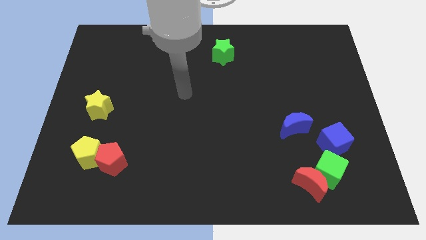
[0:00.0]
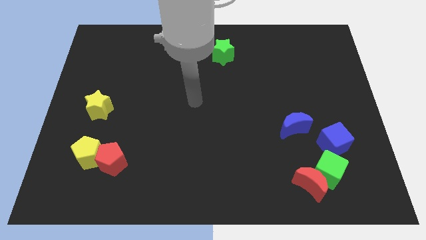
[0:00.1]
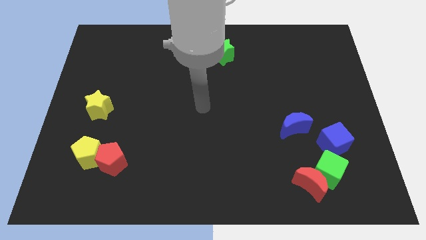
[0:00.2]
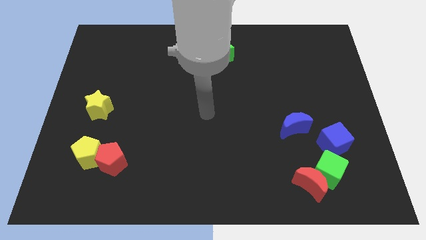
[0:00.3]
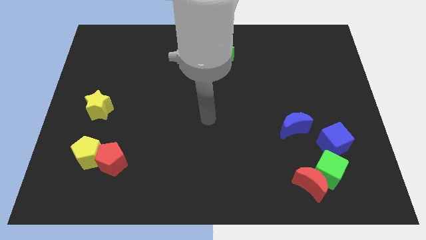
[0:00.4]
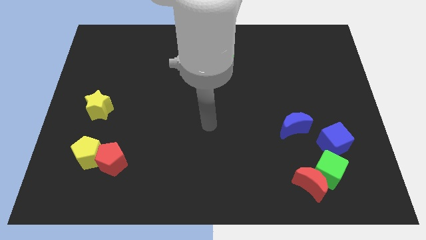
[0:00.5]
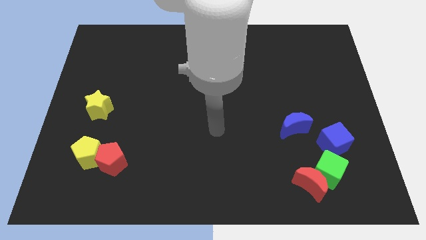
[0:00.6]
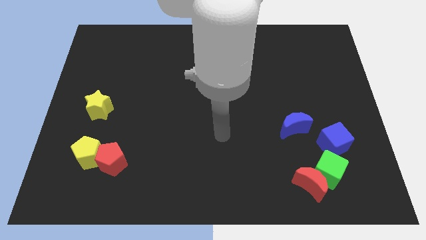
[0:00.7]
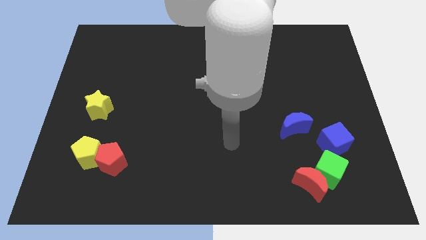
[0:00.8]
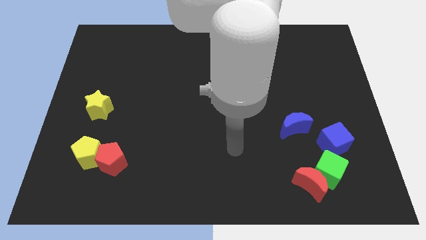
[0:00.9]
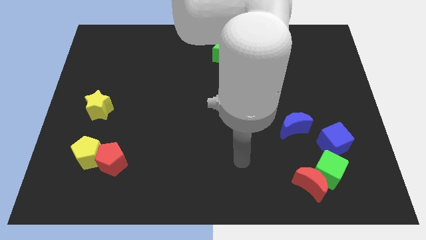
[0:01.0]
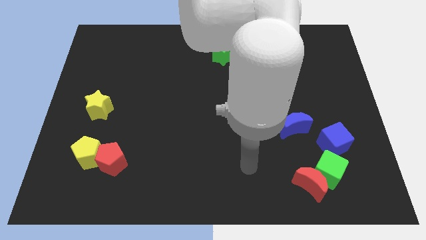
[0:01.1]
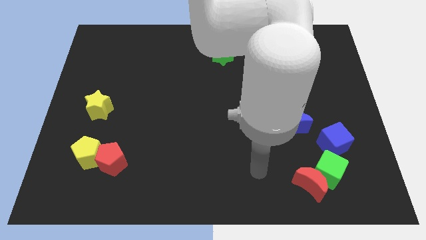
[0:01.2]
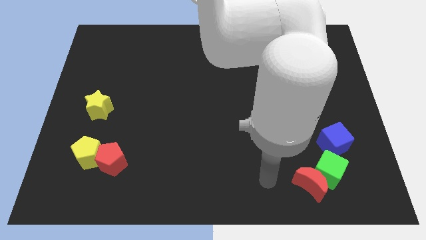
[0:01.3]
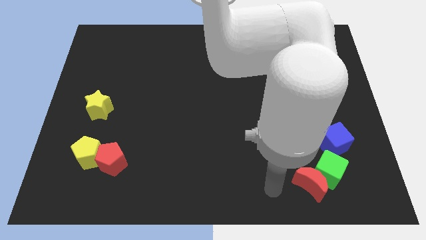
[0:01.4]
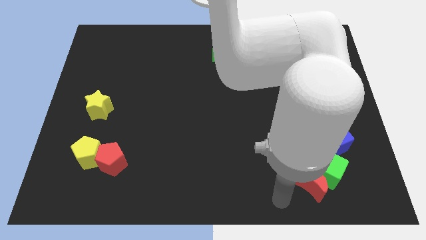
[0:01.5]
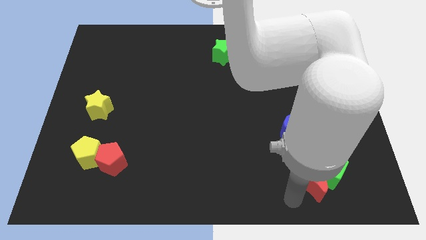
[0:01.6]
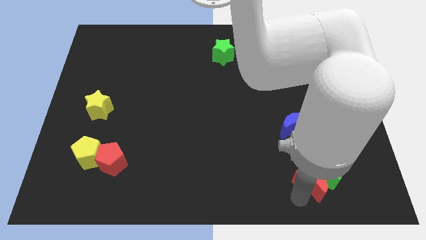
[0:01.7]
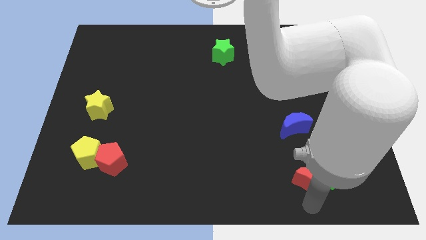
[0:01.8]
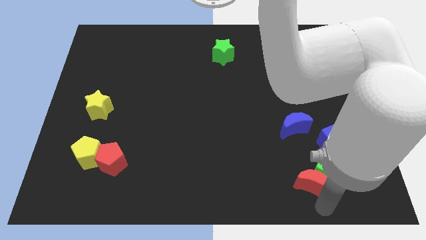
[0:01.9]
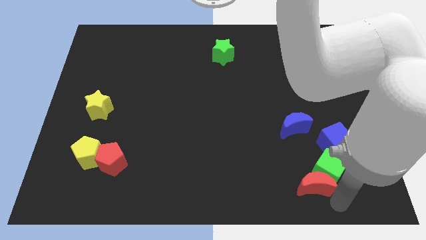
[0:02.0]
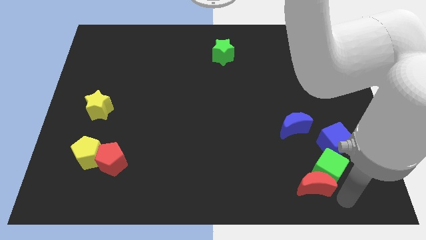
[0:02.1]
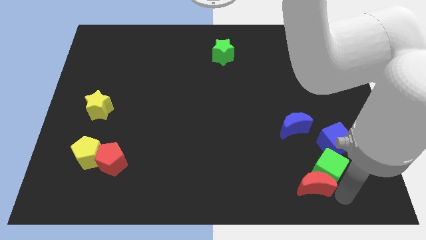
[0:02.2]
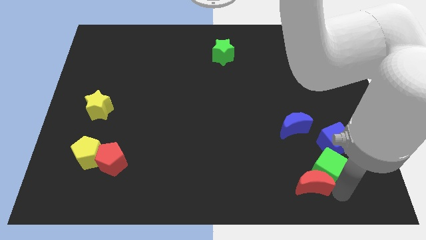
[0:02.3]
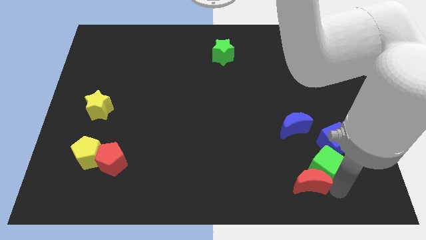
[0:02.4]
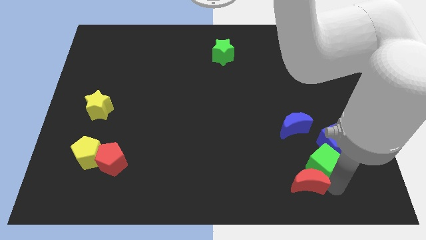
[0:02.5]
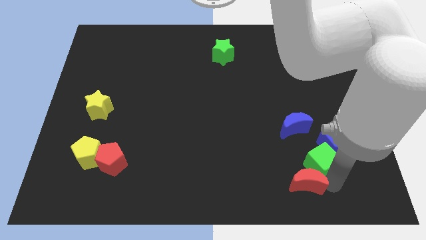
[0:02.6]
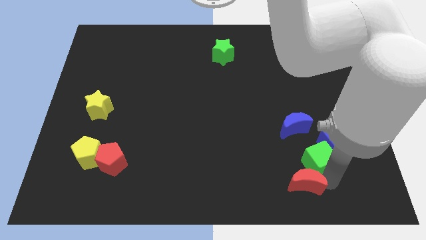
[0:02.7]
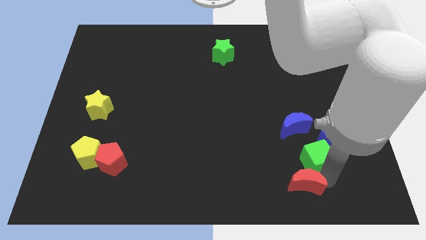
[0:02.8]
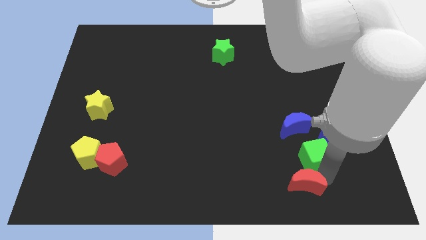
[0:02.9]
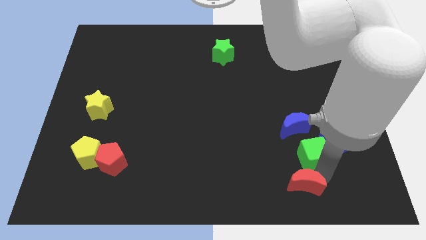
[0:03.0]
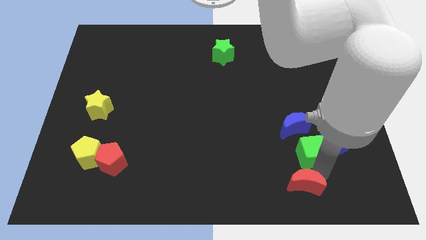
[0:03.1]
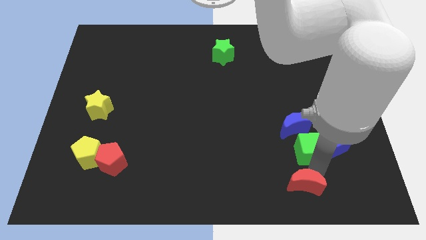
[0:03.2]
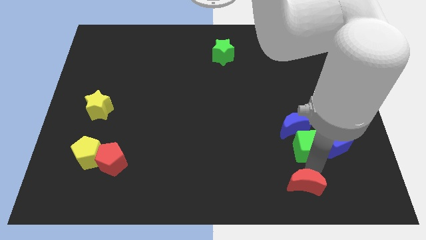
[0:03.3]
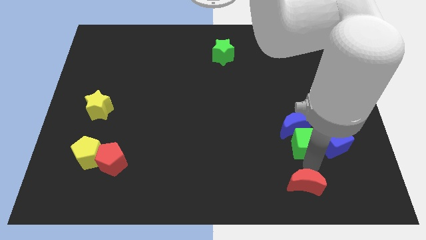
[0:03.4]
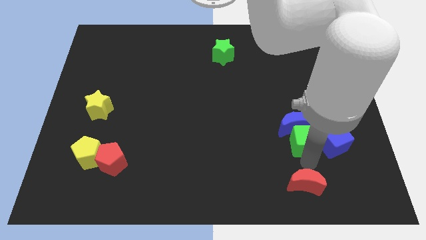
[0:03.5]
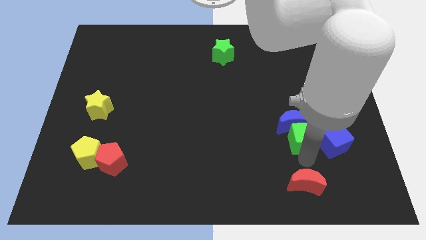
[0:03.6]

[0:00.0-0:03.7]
slightly slide the green cube upwards

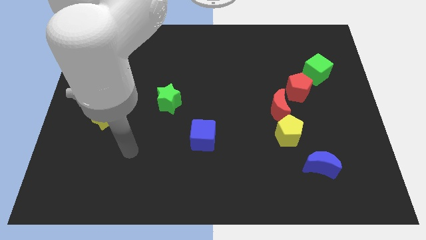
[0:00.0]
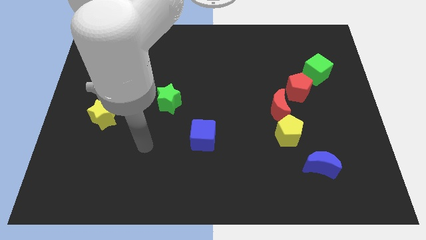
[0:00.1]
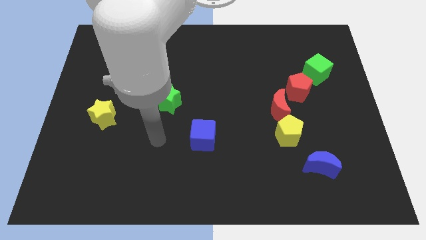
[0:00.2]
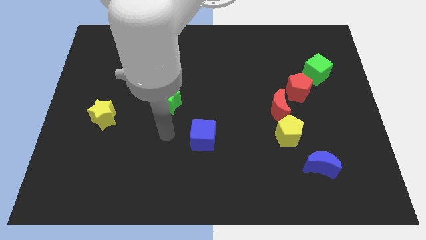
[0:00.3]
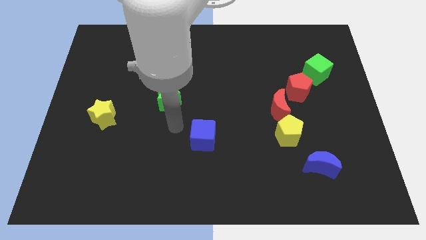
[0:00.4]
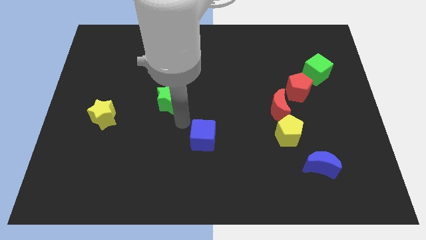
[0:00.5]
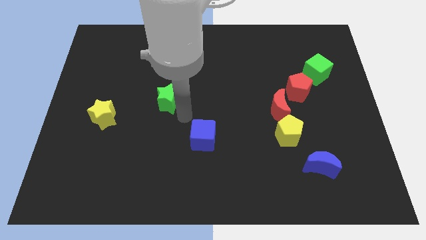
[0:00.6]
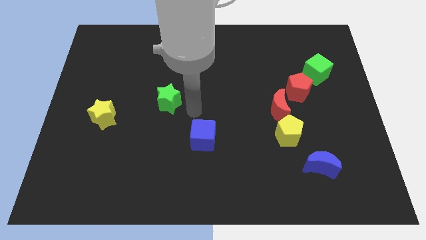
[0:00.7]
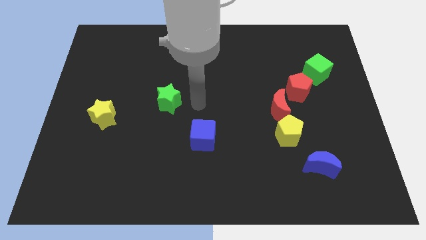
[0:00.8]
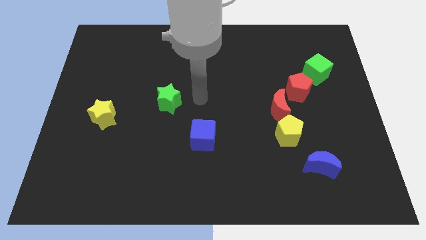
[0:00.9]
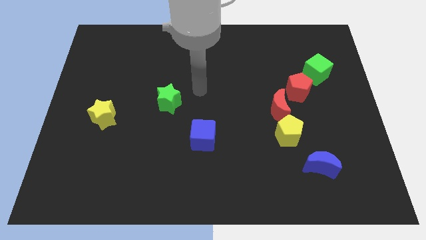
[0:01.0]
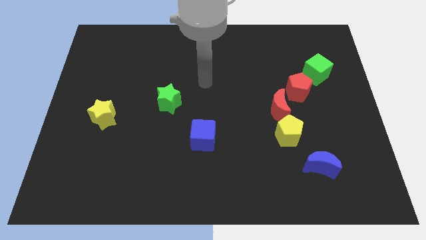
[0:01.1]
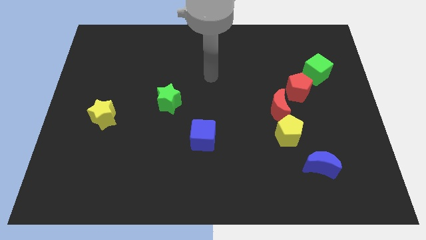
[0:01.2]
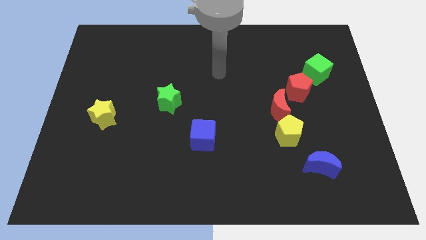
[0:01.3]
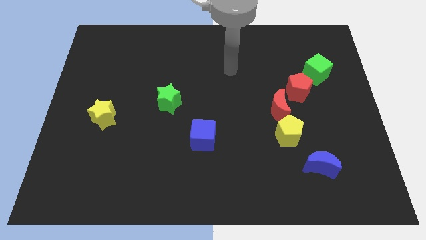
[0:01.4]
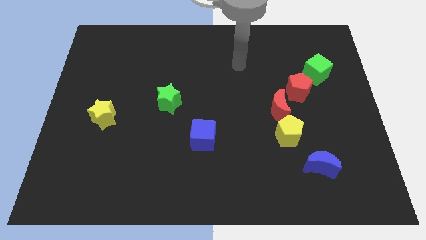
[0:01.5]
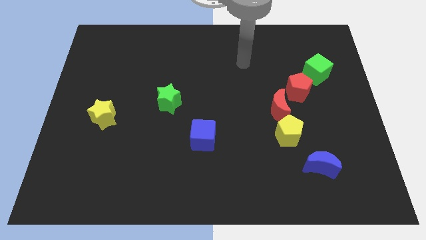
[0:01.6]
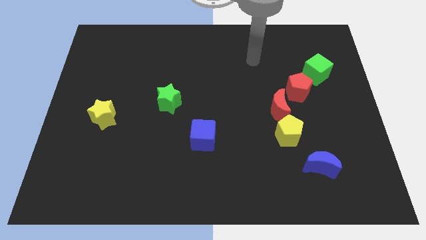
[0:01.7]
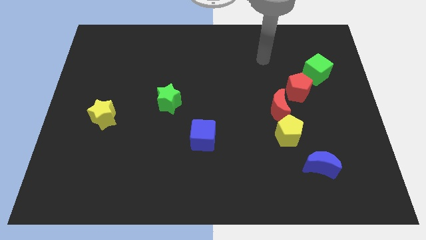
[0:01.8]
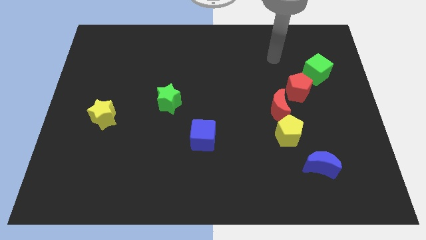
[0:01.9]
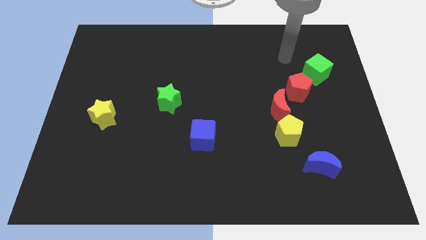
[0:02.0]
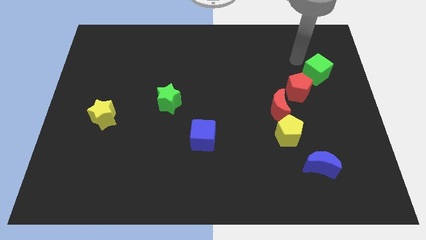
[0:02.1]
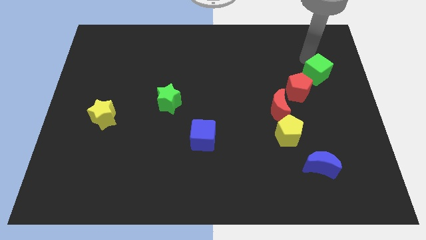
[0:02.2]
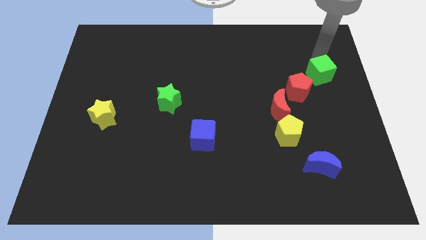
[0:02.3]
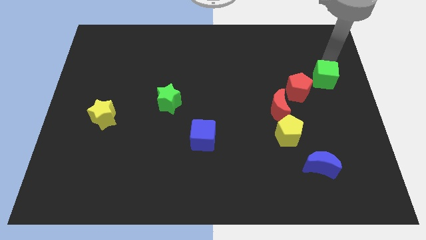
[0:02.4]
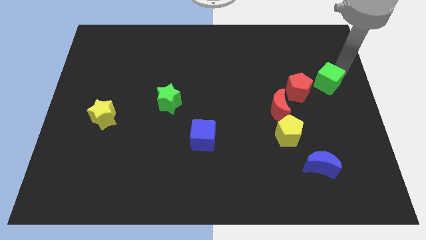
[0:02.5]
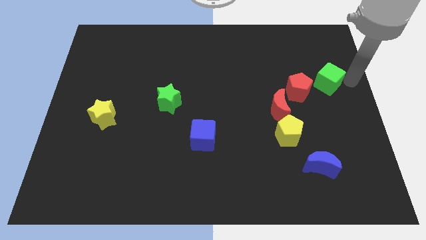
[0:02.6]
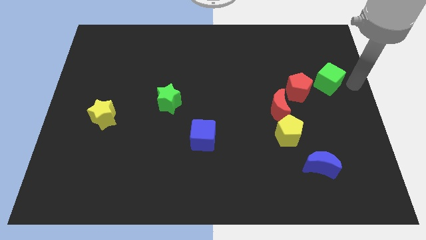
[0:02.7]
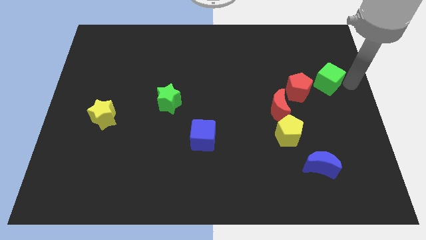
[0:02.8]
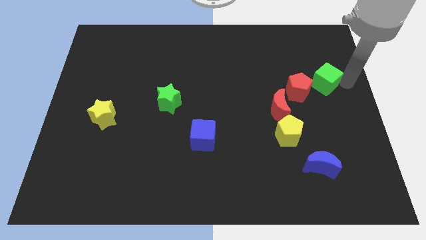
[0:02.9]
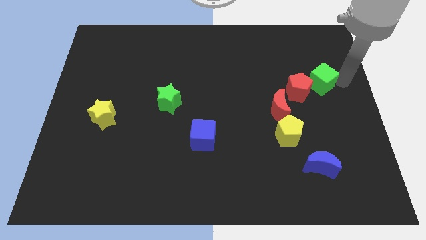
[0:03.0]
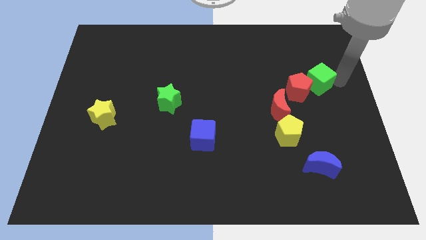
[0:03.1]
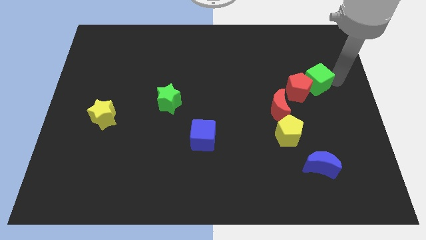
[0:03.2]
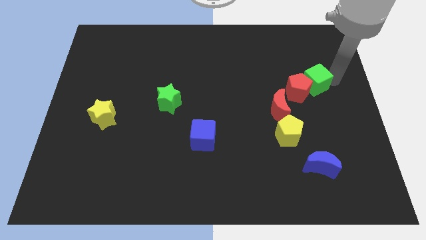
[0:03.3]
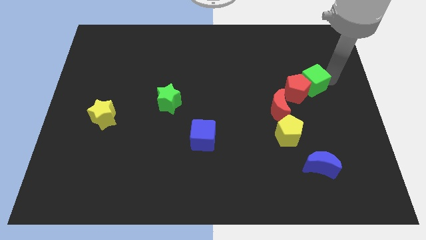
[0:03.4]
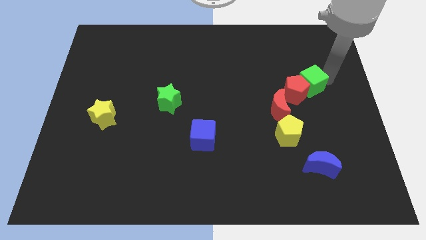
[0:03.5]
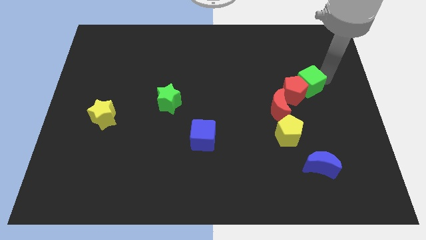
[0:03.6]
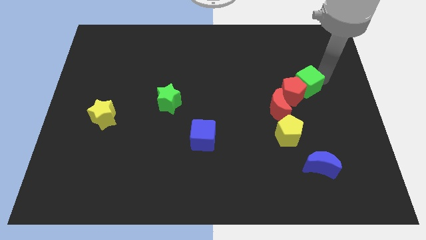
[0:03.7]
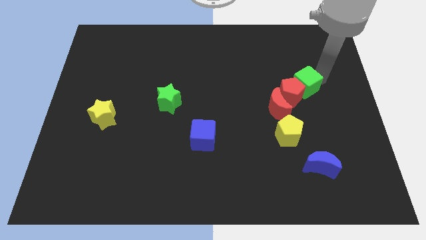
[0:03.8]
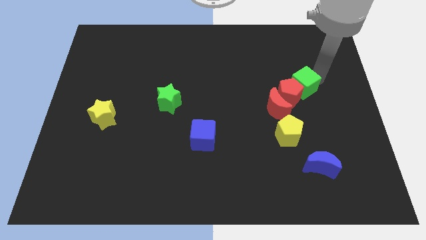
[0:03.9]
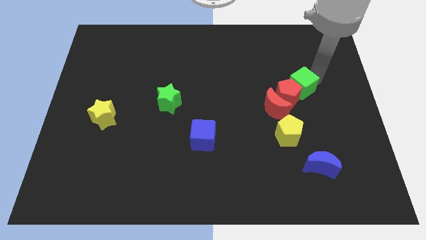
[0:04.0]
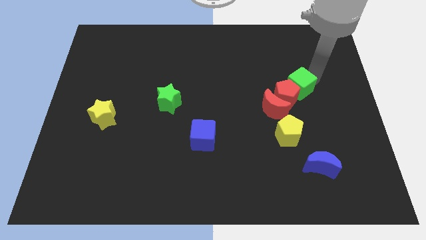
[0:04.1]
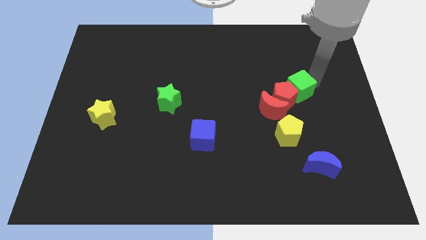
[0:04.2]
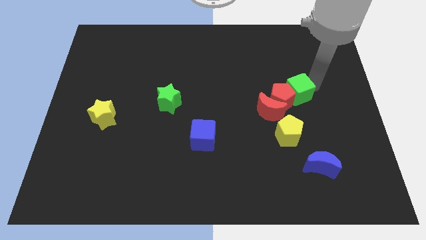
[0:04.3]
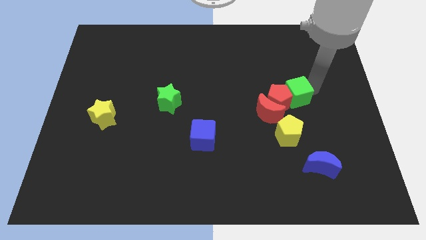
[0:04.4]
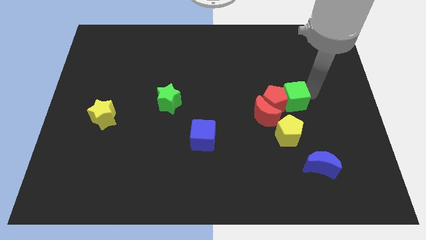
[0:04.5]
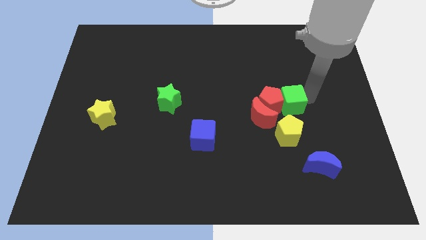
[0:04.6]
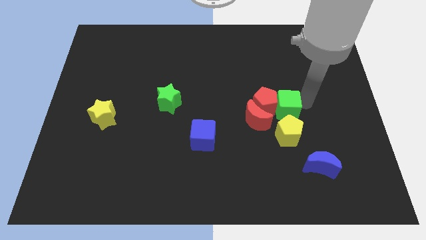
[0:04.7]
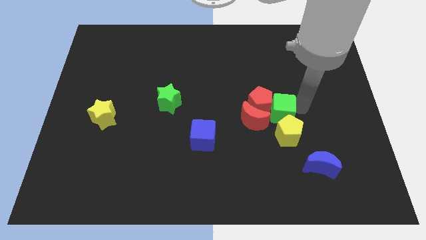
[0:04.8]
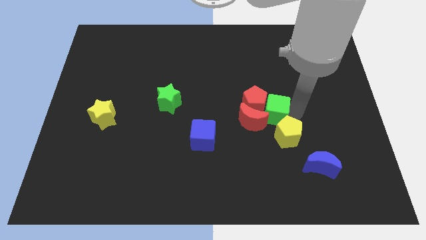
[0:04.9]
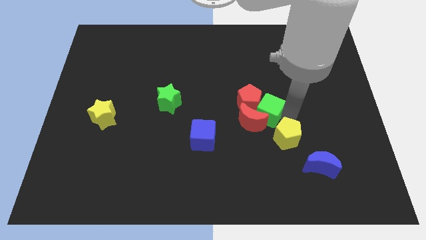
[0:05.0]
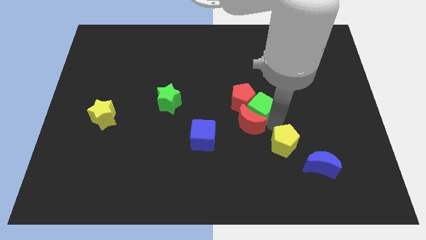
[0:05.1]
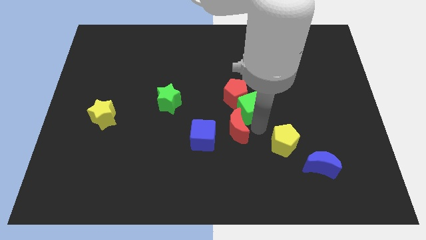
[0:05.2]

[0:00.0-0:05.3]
slide the green cube downwards and then to the left
